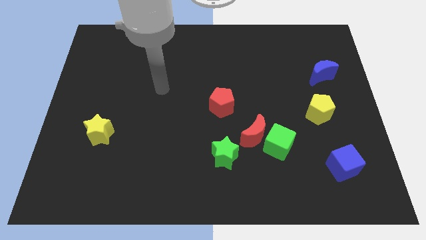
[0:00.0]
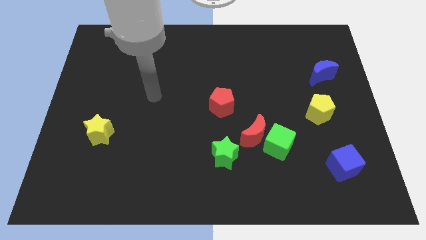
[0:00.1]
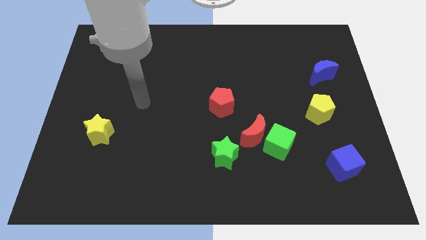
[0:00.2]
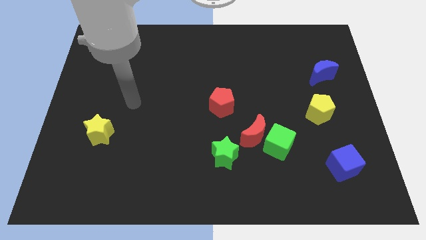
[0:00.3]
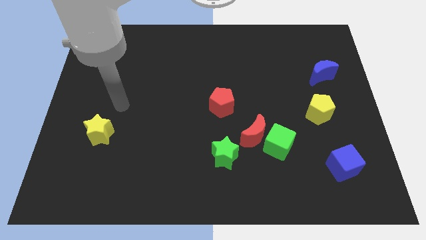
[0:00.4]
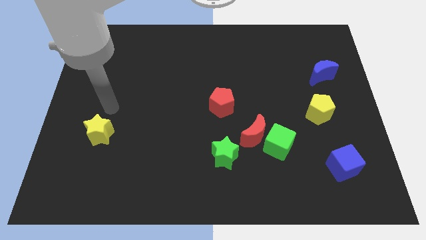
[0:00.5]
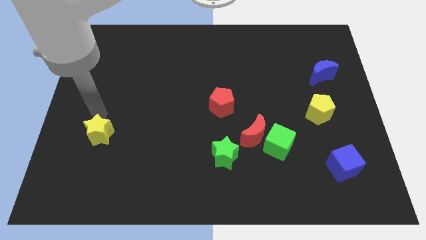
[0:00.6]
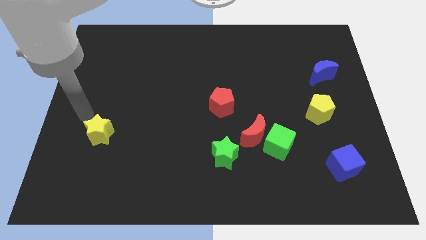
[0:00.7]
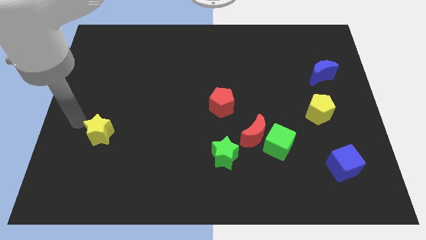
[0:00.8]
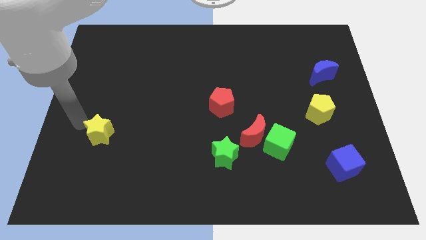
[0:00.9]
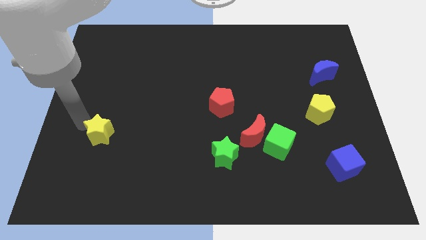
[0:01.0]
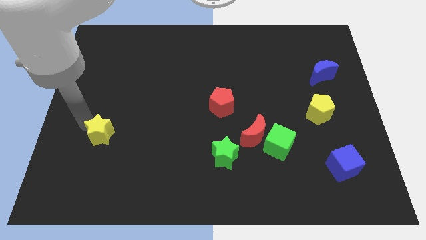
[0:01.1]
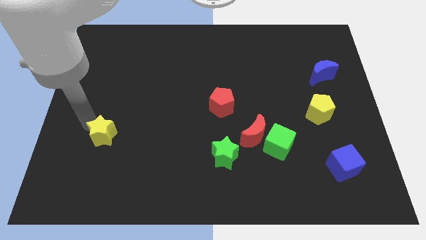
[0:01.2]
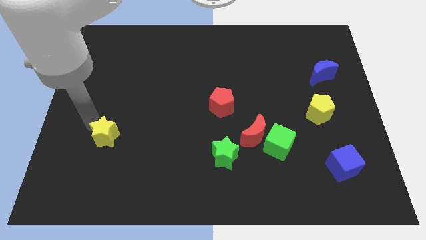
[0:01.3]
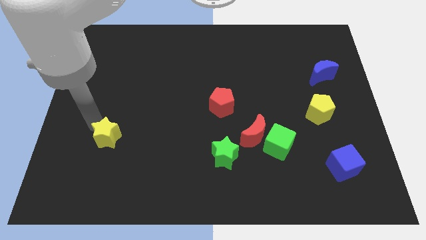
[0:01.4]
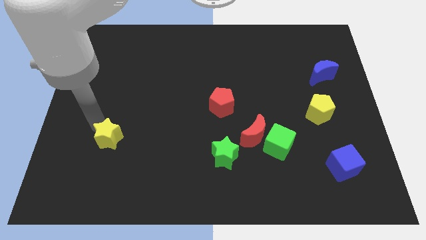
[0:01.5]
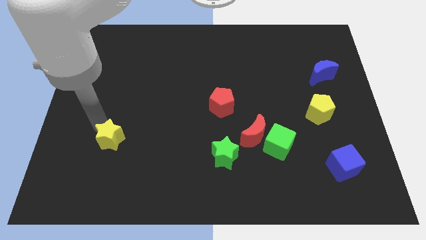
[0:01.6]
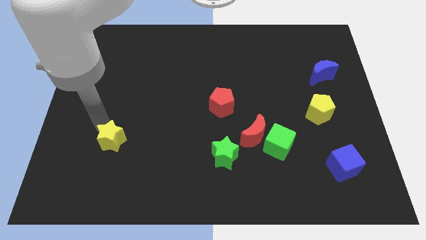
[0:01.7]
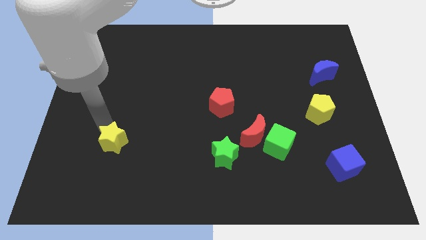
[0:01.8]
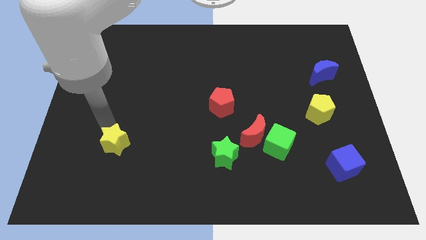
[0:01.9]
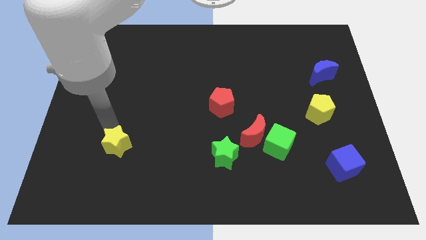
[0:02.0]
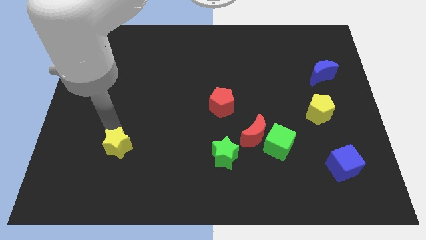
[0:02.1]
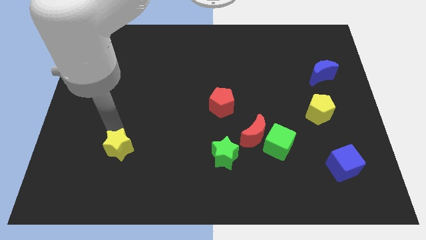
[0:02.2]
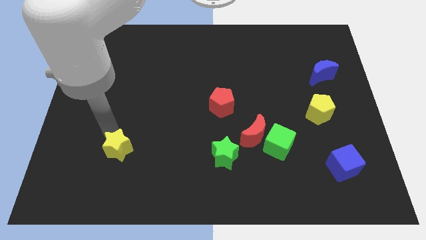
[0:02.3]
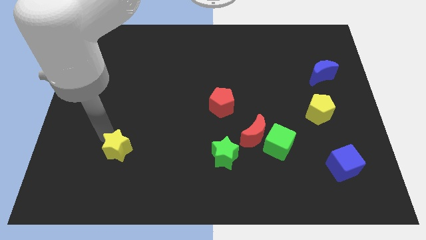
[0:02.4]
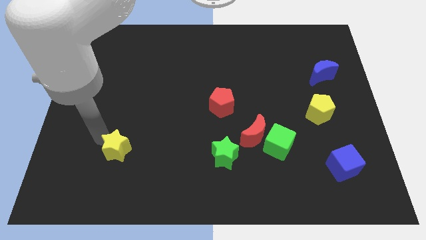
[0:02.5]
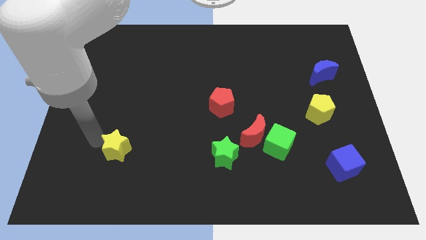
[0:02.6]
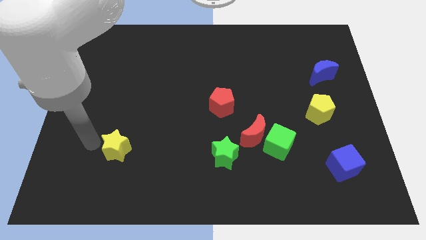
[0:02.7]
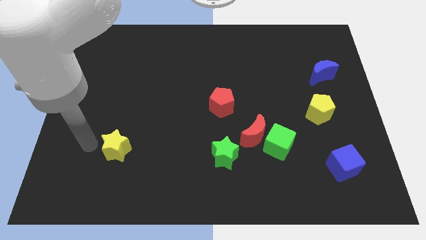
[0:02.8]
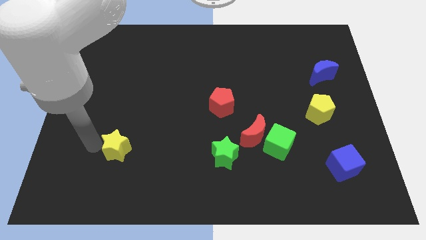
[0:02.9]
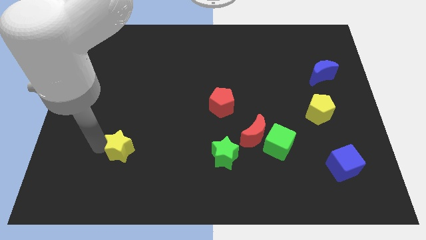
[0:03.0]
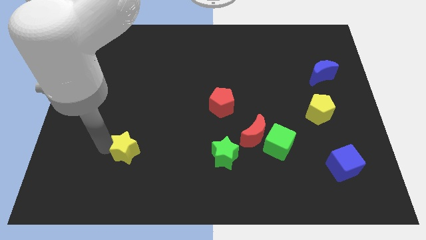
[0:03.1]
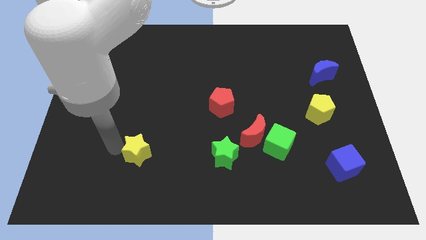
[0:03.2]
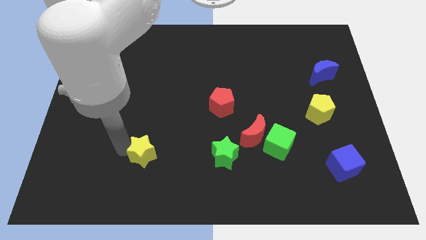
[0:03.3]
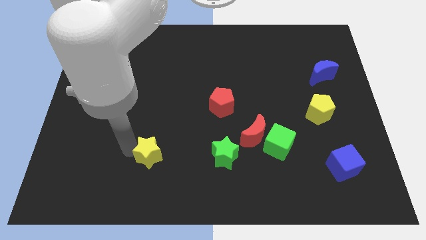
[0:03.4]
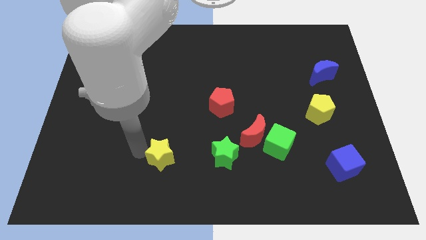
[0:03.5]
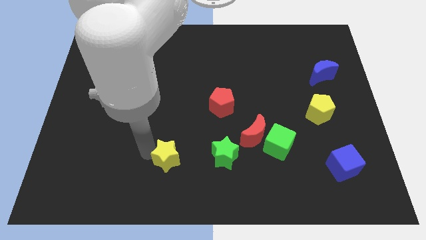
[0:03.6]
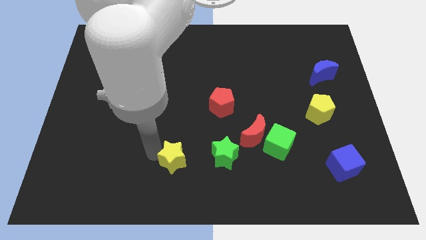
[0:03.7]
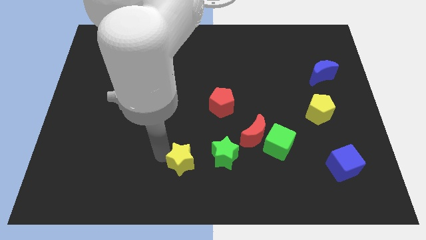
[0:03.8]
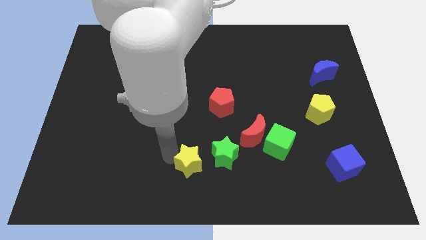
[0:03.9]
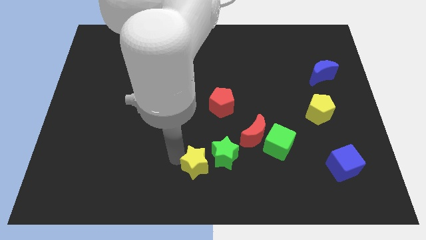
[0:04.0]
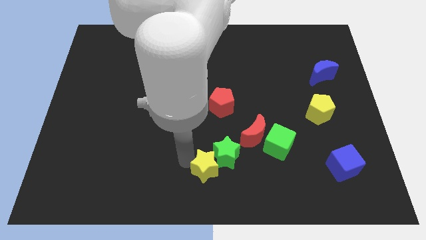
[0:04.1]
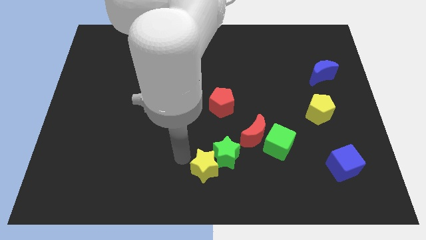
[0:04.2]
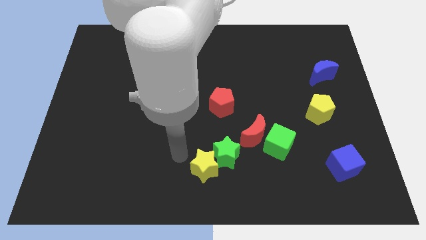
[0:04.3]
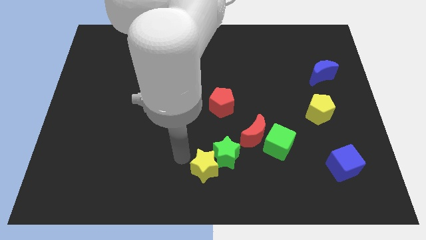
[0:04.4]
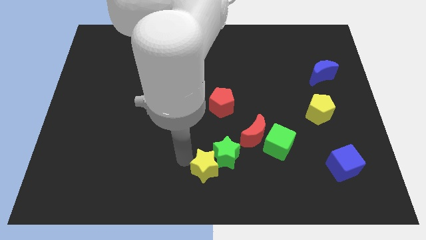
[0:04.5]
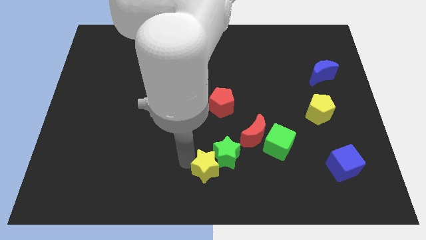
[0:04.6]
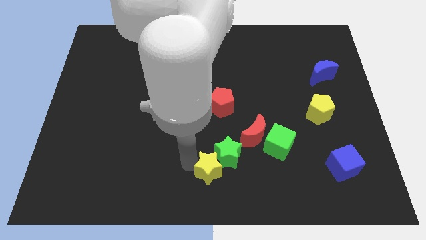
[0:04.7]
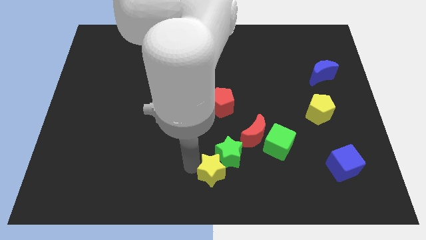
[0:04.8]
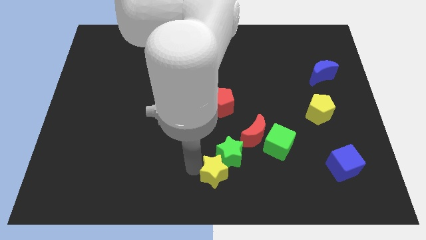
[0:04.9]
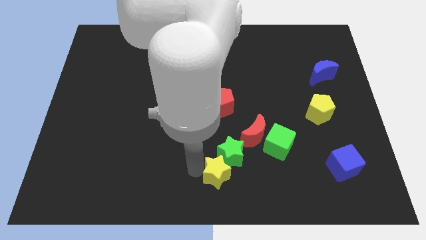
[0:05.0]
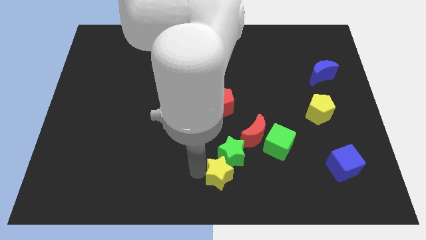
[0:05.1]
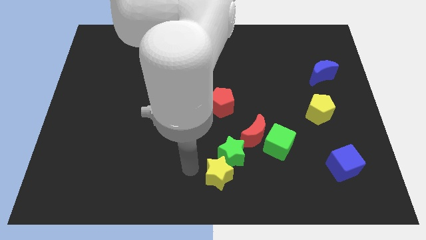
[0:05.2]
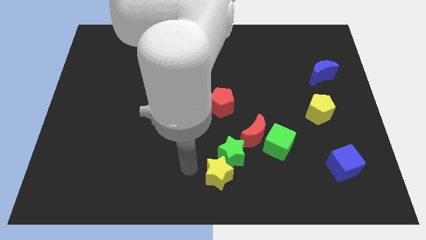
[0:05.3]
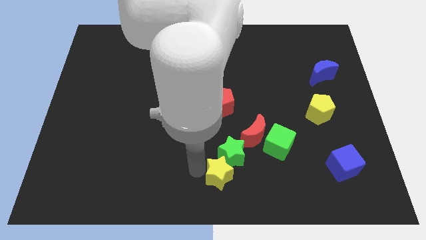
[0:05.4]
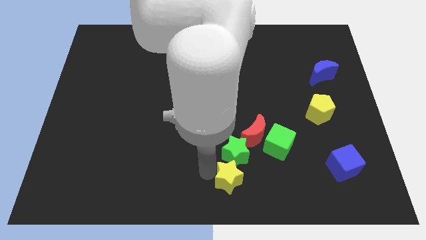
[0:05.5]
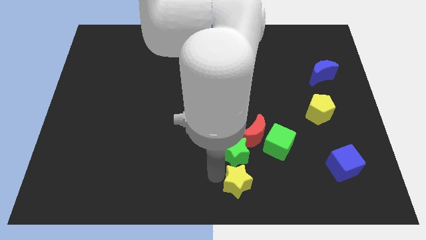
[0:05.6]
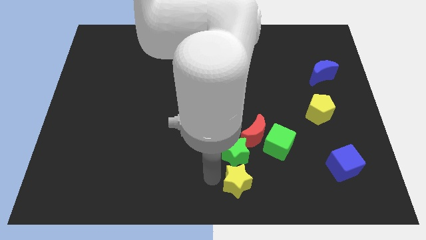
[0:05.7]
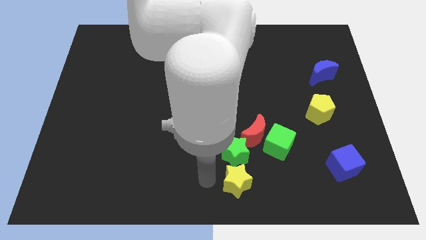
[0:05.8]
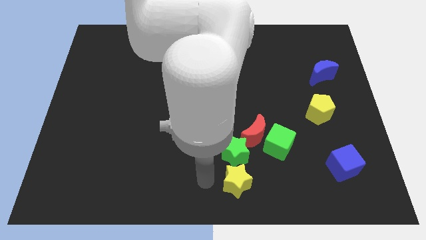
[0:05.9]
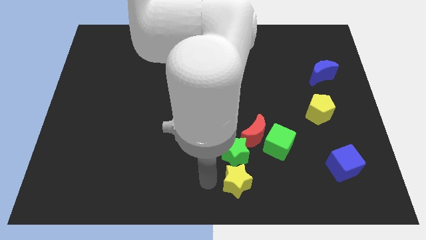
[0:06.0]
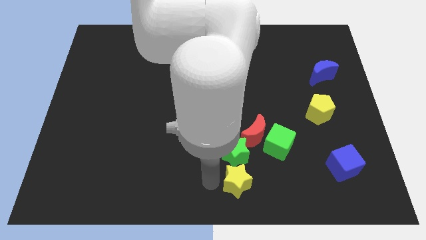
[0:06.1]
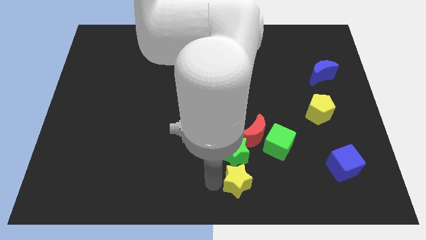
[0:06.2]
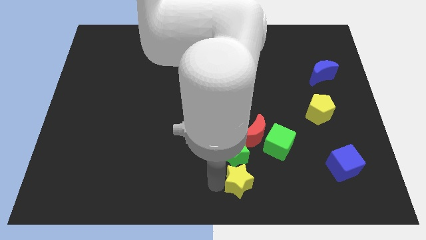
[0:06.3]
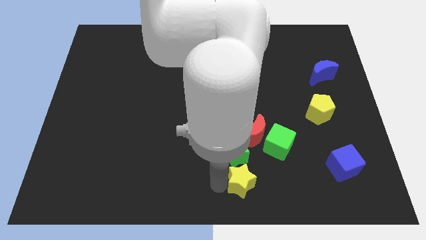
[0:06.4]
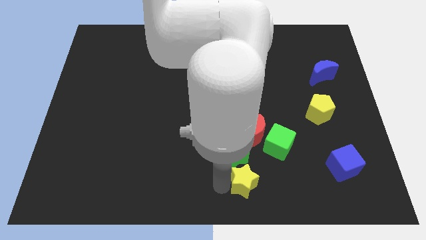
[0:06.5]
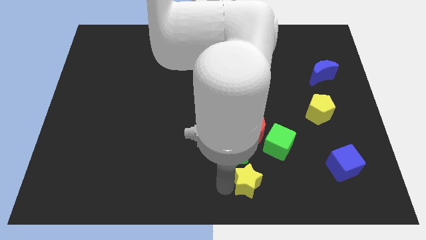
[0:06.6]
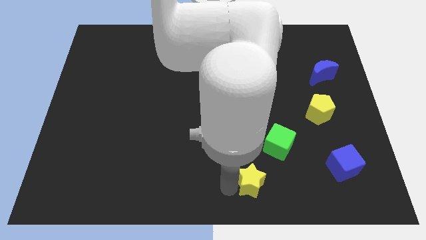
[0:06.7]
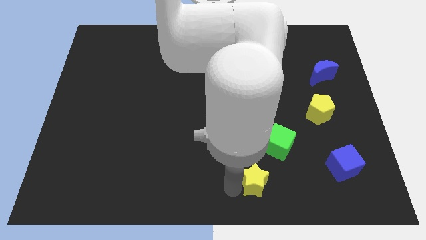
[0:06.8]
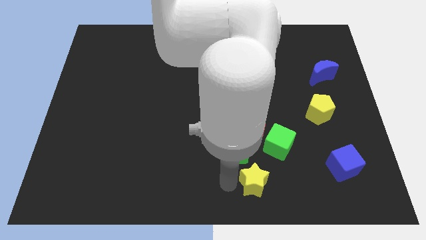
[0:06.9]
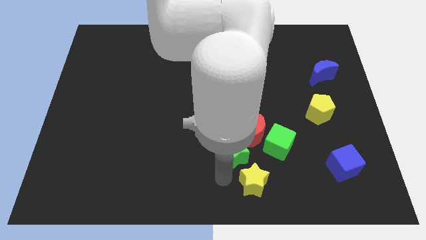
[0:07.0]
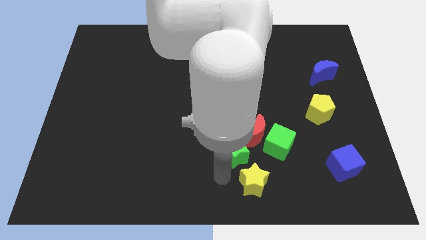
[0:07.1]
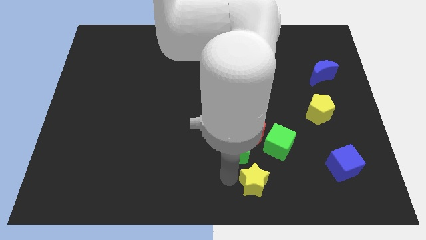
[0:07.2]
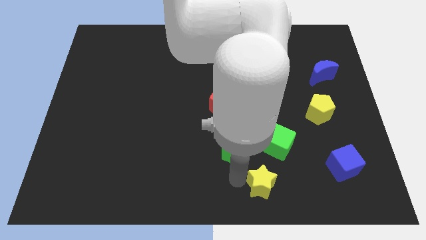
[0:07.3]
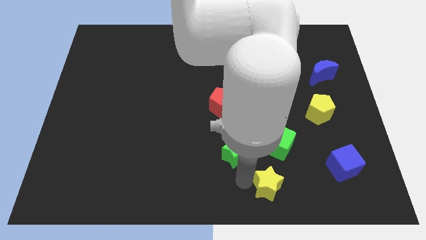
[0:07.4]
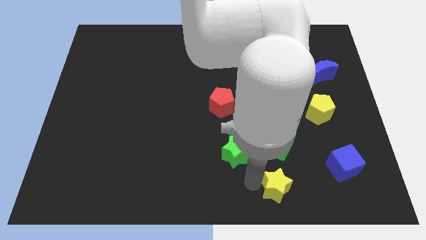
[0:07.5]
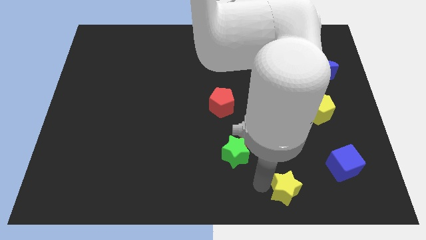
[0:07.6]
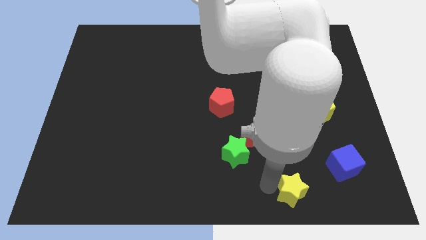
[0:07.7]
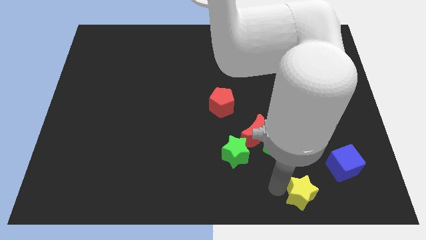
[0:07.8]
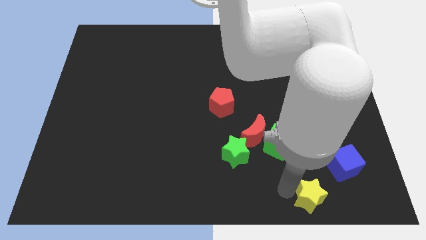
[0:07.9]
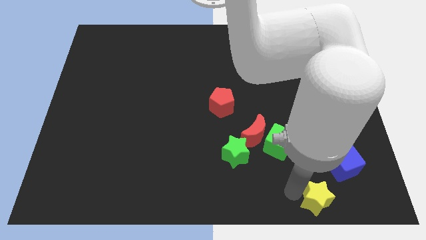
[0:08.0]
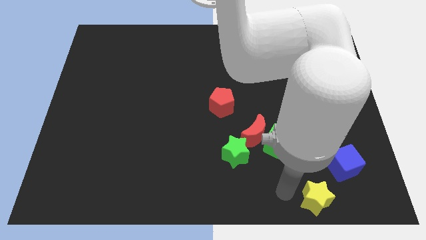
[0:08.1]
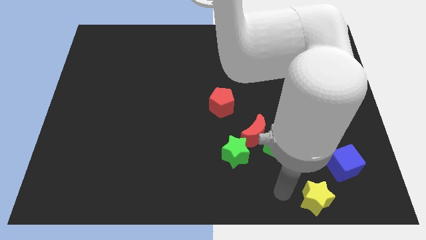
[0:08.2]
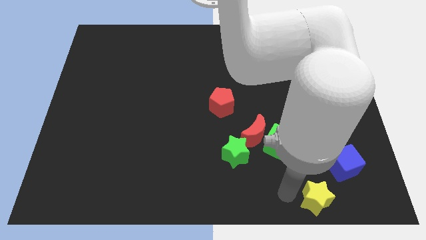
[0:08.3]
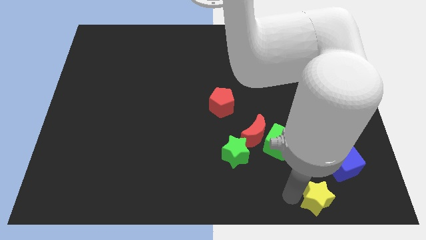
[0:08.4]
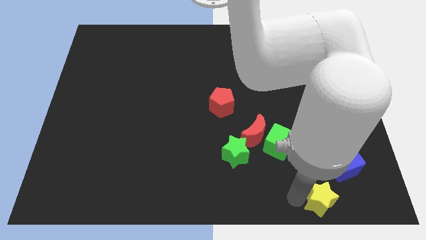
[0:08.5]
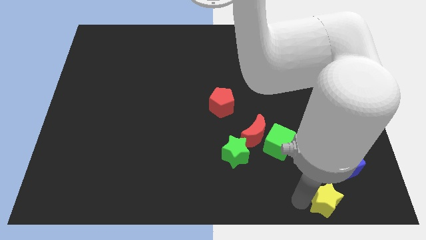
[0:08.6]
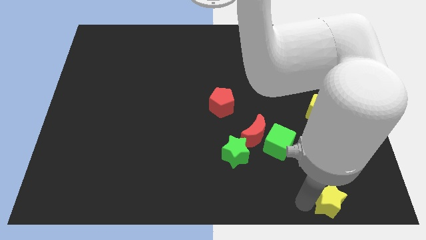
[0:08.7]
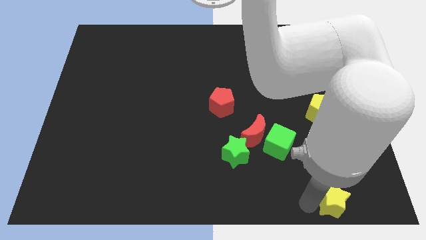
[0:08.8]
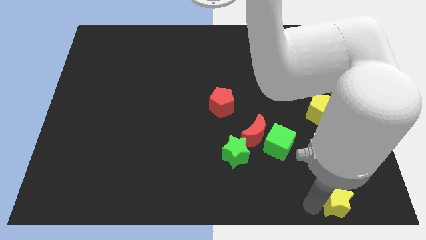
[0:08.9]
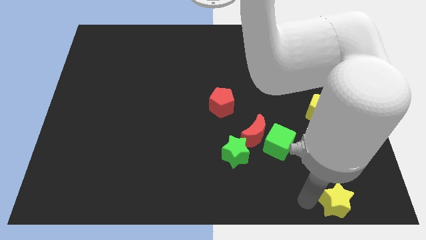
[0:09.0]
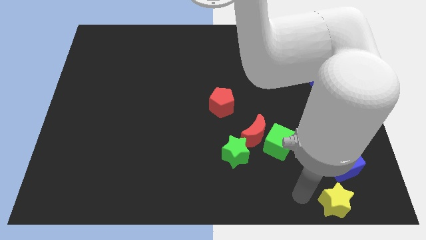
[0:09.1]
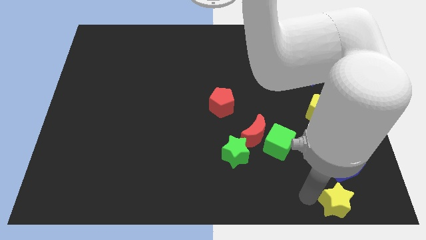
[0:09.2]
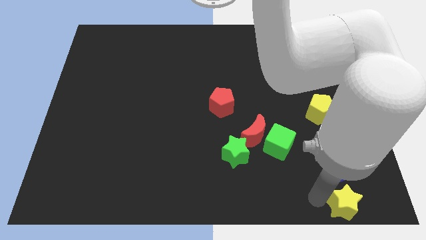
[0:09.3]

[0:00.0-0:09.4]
slide the yellow star to the bottom right
